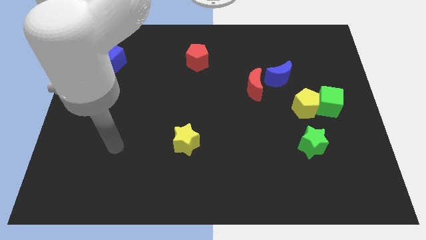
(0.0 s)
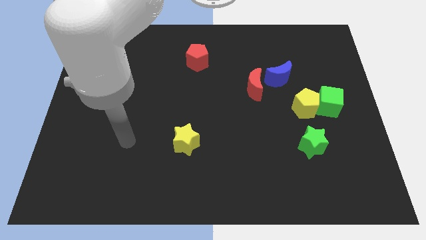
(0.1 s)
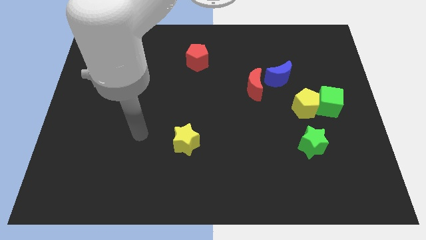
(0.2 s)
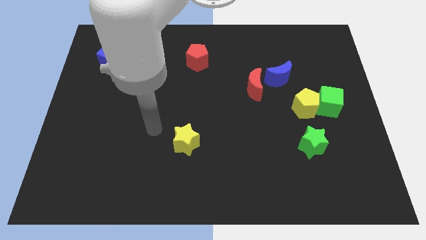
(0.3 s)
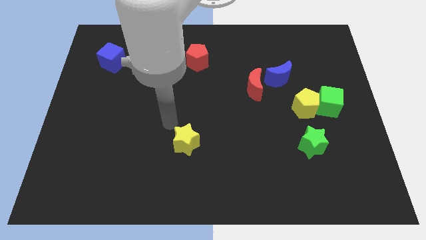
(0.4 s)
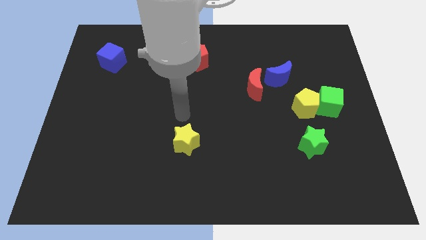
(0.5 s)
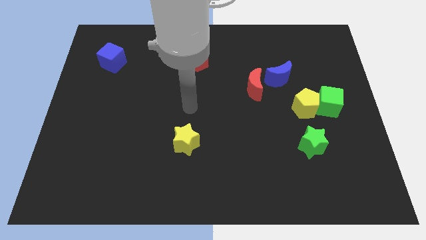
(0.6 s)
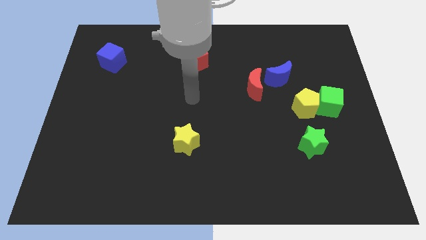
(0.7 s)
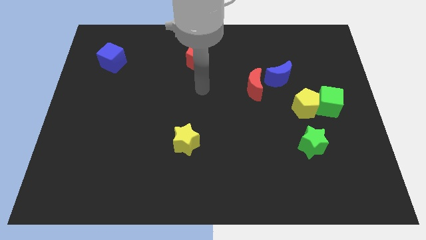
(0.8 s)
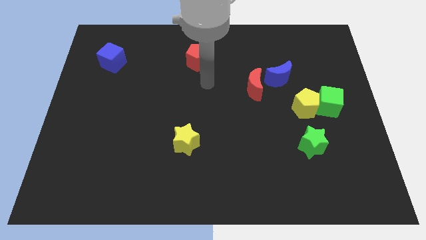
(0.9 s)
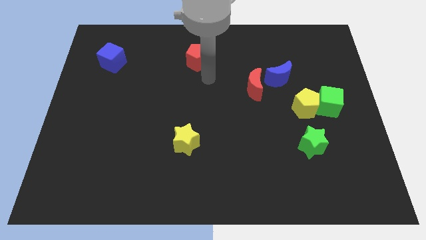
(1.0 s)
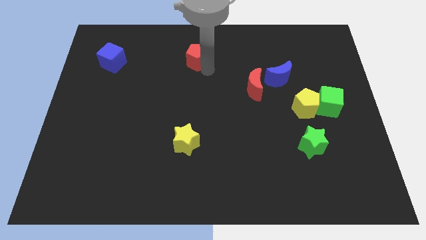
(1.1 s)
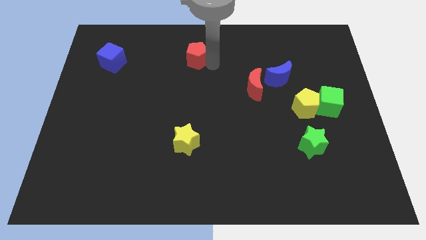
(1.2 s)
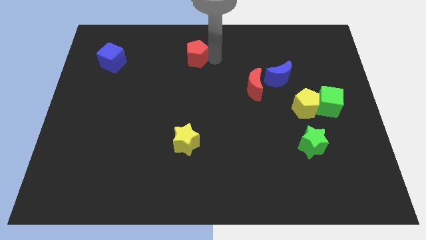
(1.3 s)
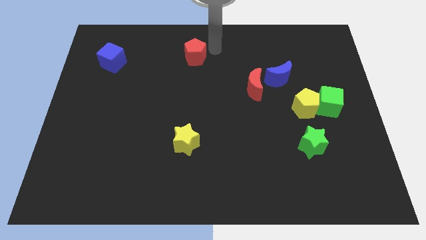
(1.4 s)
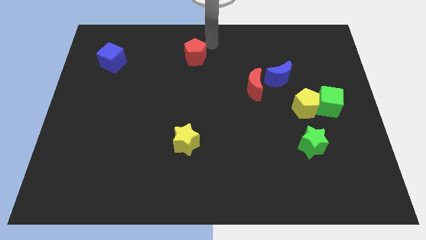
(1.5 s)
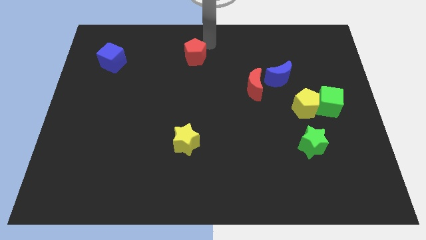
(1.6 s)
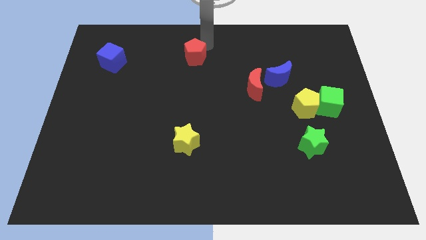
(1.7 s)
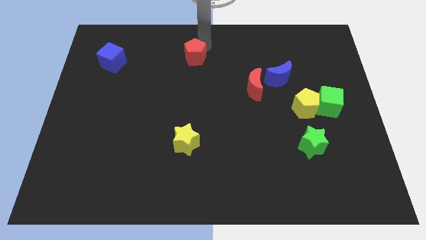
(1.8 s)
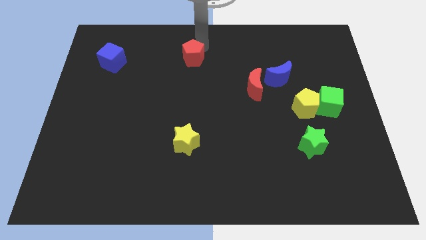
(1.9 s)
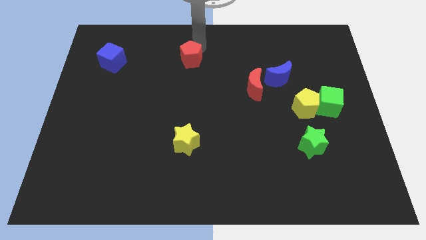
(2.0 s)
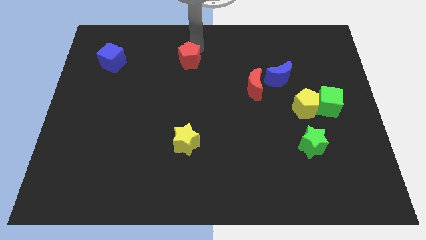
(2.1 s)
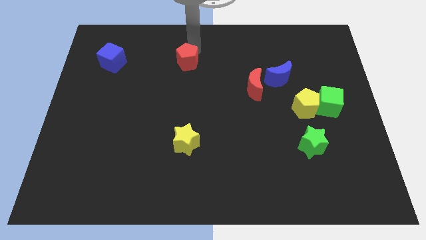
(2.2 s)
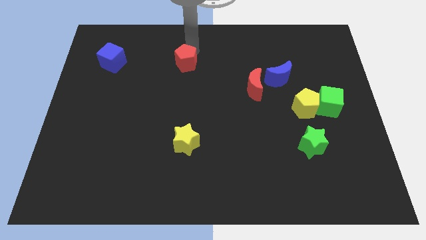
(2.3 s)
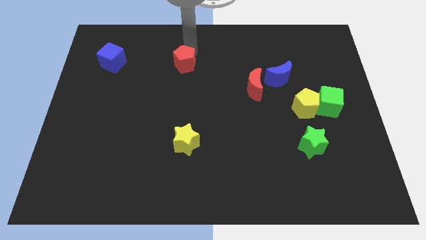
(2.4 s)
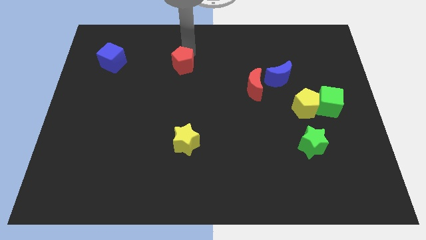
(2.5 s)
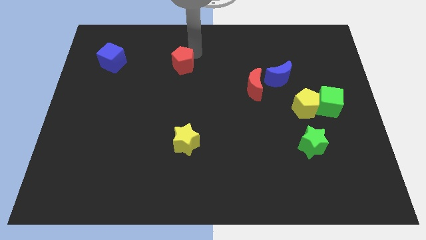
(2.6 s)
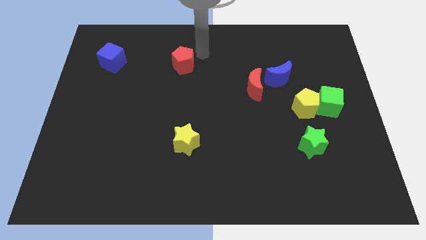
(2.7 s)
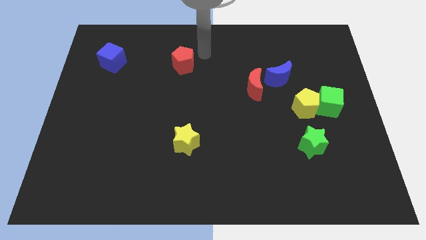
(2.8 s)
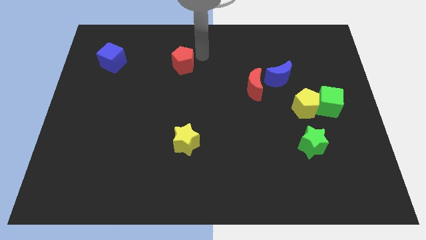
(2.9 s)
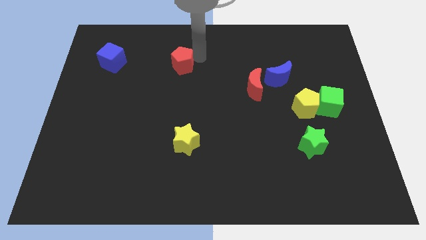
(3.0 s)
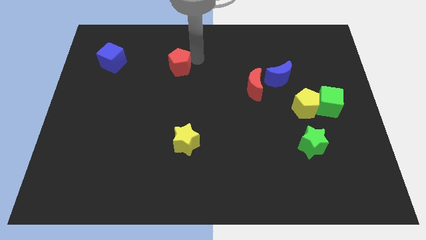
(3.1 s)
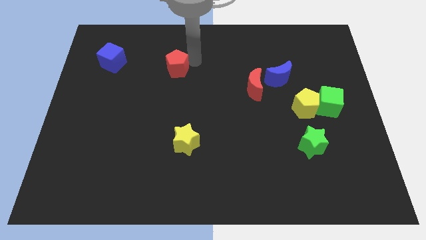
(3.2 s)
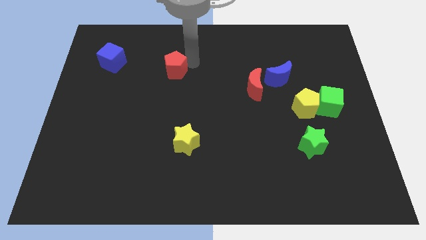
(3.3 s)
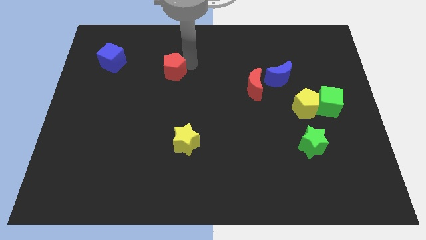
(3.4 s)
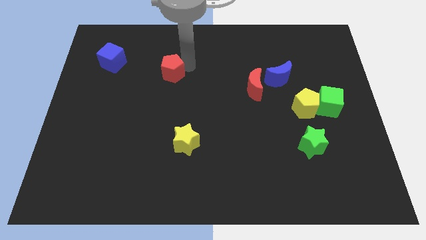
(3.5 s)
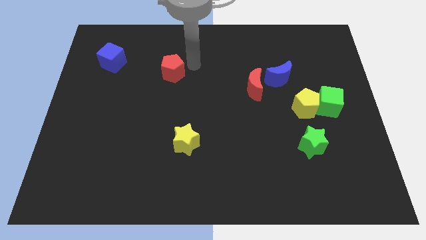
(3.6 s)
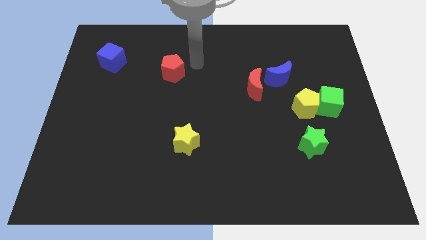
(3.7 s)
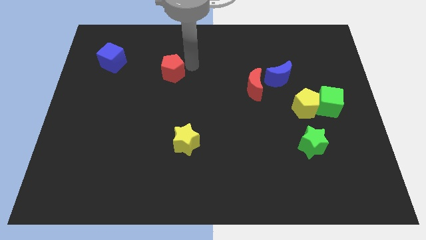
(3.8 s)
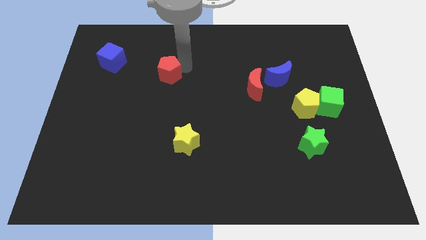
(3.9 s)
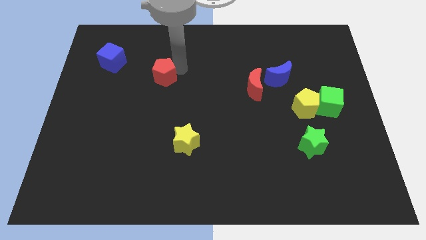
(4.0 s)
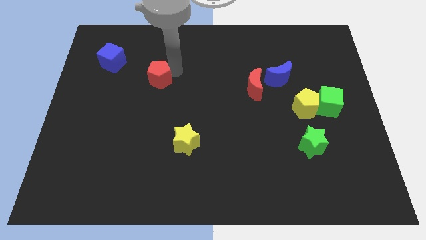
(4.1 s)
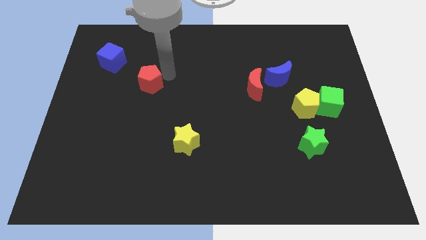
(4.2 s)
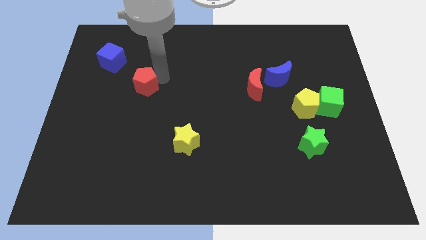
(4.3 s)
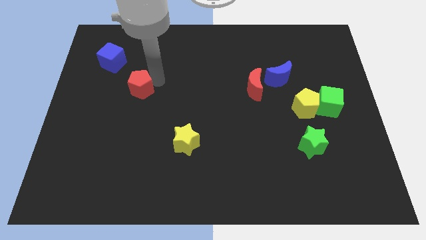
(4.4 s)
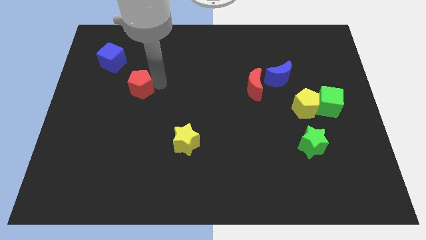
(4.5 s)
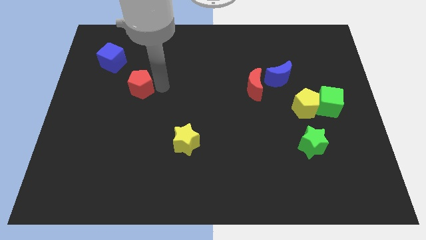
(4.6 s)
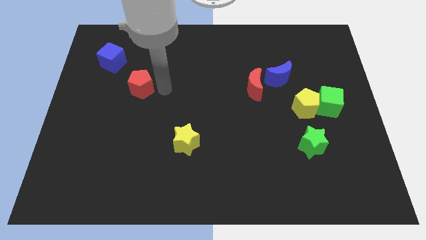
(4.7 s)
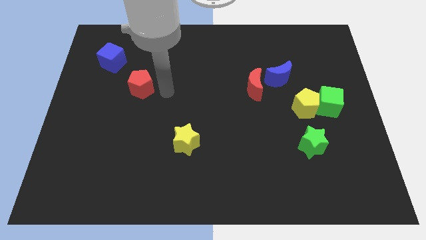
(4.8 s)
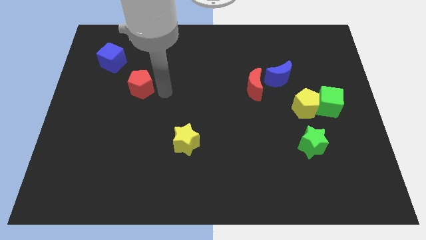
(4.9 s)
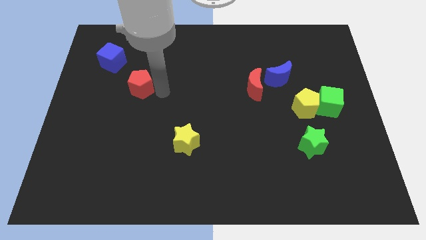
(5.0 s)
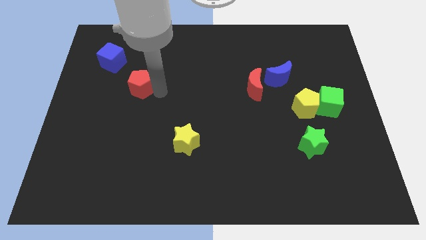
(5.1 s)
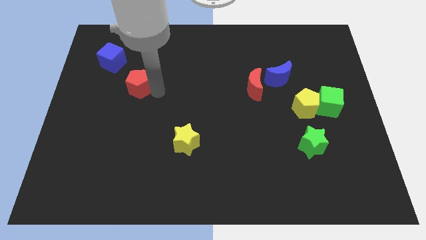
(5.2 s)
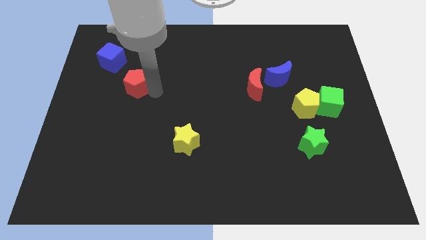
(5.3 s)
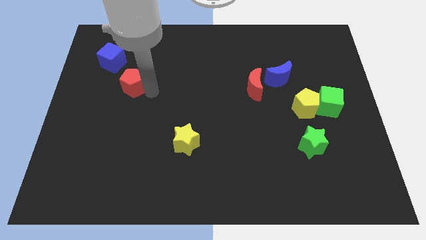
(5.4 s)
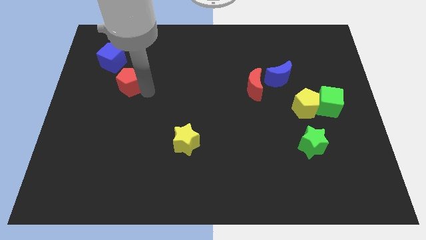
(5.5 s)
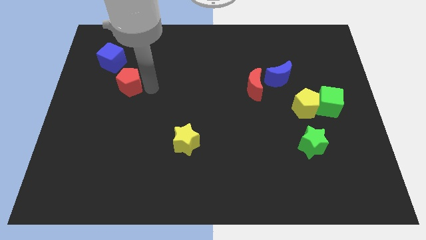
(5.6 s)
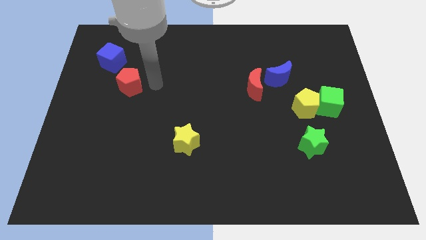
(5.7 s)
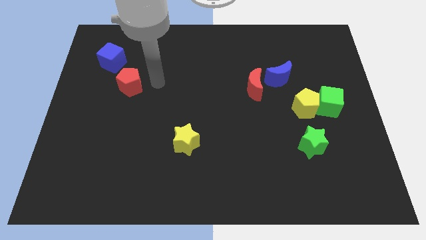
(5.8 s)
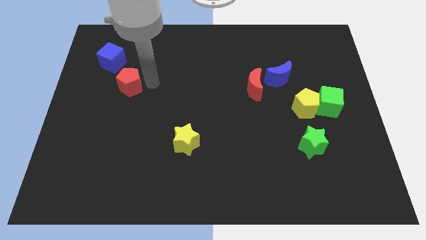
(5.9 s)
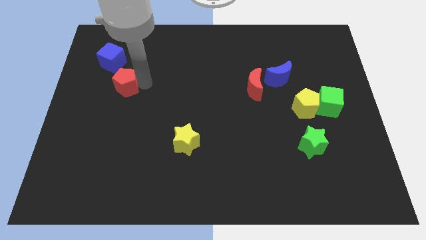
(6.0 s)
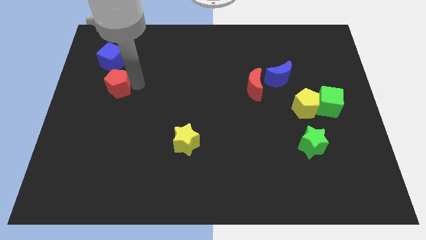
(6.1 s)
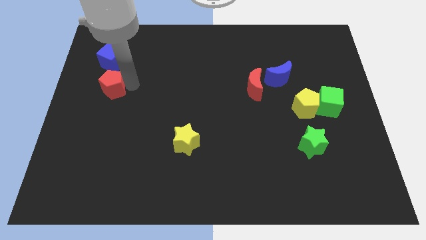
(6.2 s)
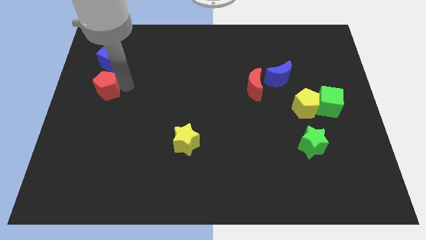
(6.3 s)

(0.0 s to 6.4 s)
move the red pentagon to the center left

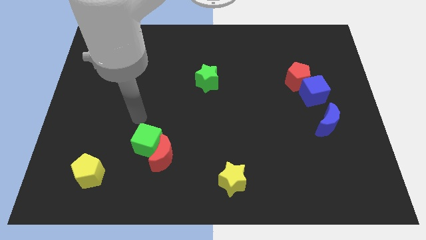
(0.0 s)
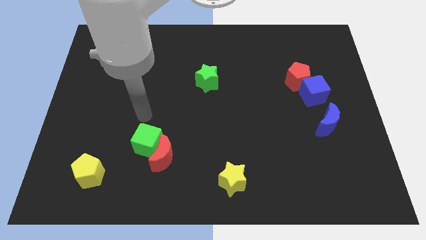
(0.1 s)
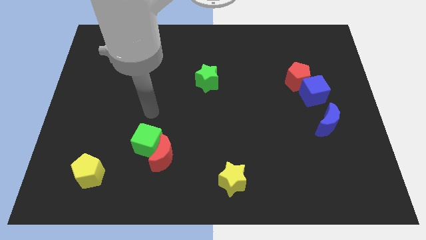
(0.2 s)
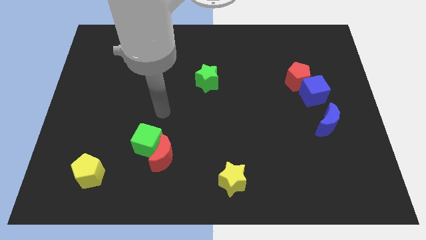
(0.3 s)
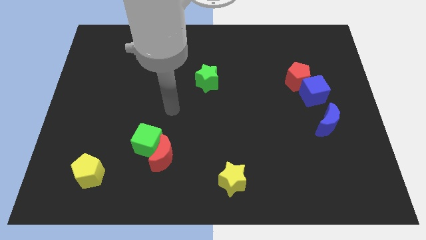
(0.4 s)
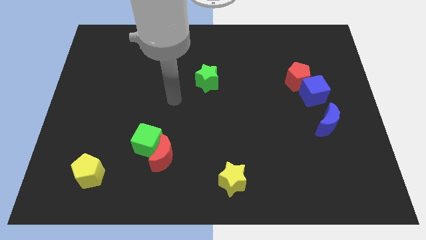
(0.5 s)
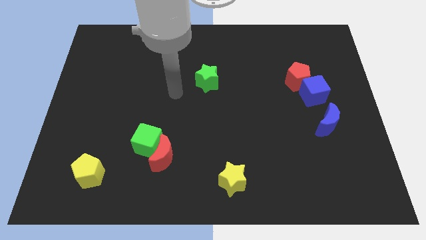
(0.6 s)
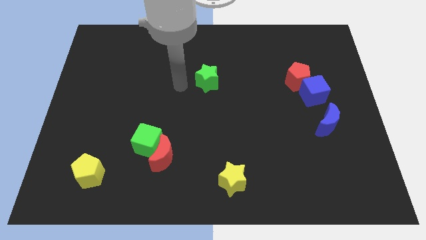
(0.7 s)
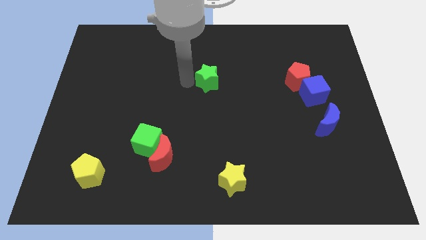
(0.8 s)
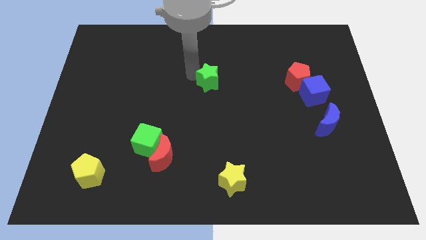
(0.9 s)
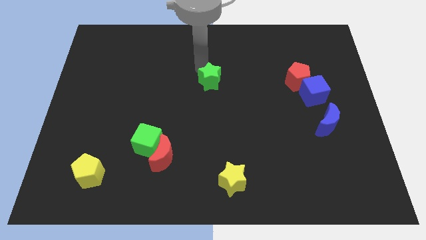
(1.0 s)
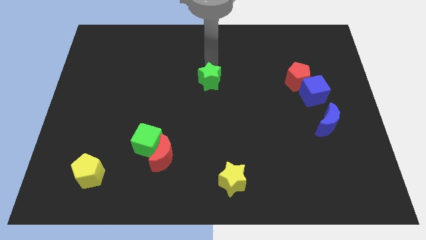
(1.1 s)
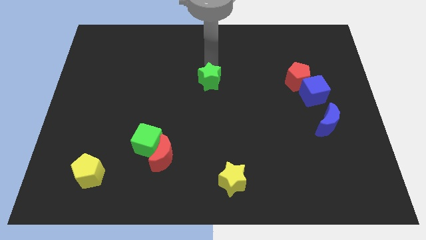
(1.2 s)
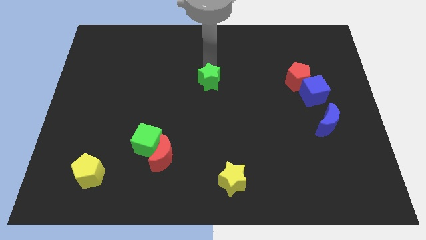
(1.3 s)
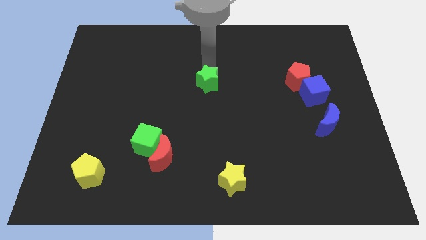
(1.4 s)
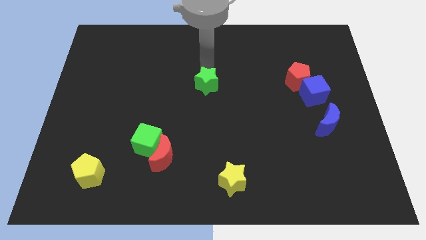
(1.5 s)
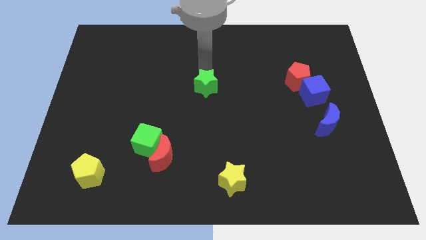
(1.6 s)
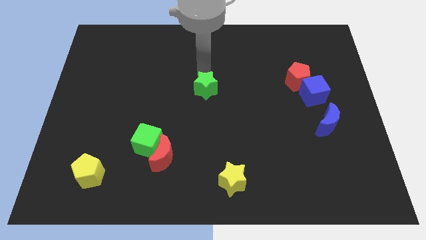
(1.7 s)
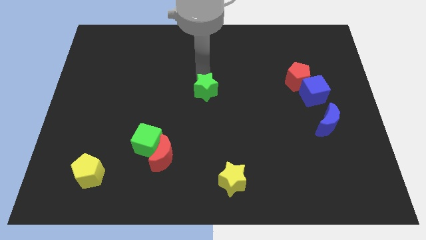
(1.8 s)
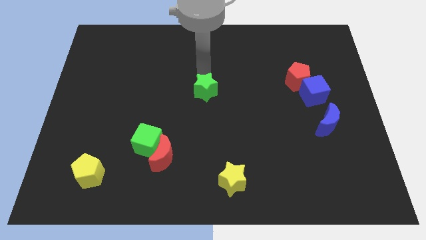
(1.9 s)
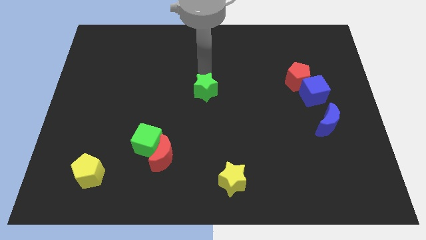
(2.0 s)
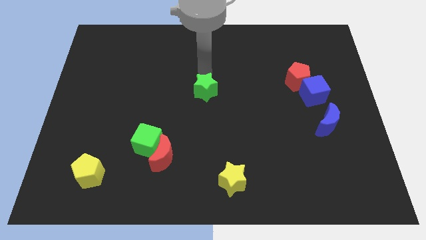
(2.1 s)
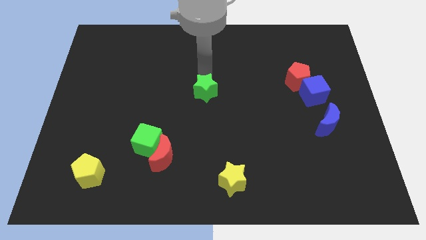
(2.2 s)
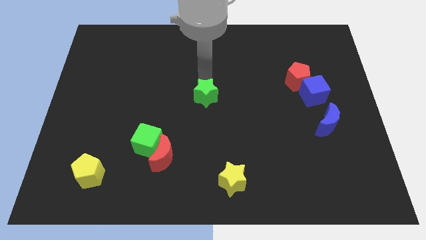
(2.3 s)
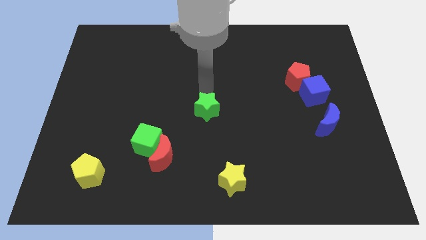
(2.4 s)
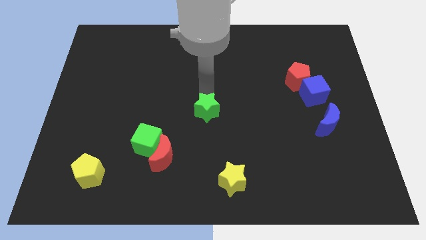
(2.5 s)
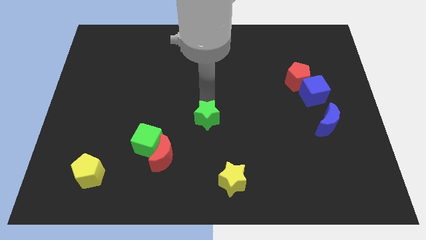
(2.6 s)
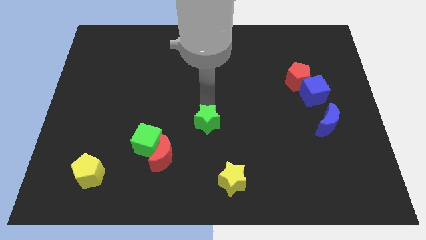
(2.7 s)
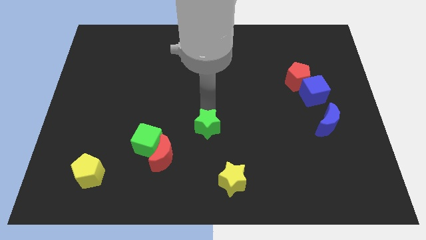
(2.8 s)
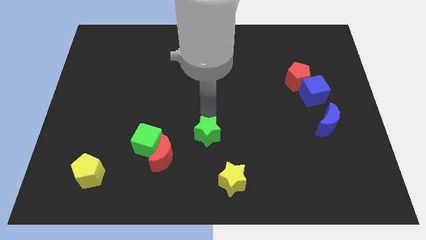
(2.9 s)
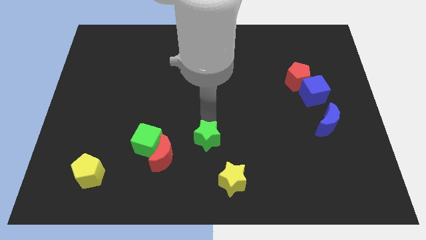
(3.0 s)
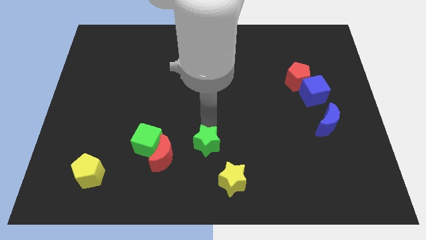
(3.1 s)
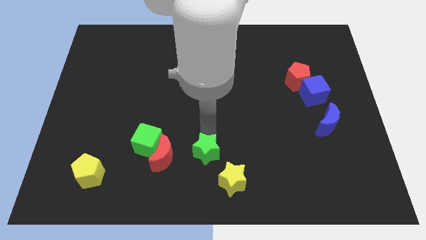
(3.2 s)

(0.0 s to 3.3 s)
put the green star to the bottom side
